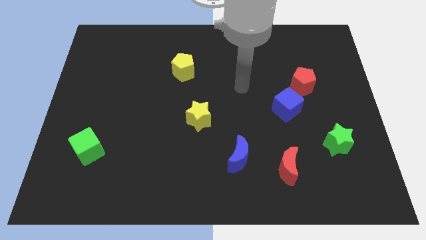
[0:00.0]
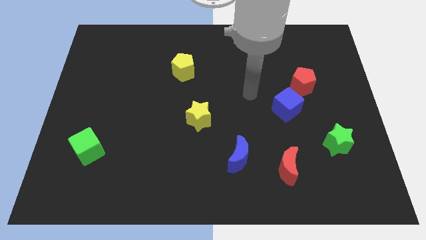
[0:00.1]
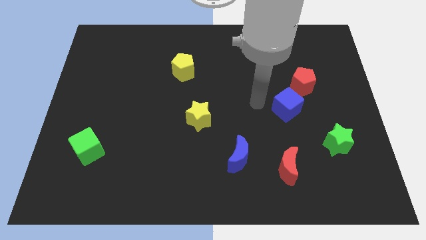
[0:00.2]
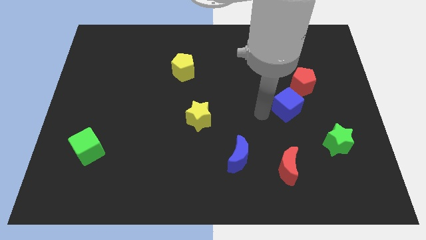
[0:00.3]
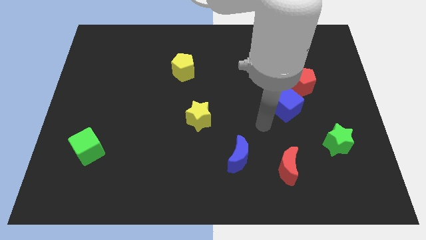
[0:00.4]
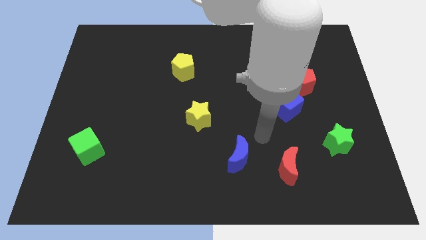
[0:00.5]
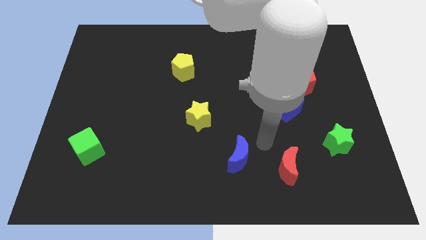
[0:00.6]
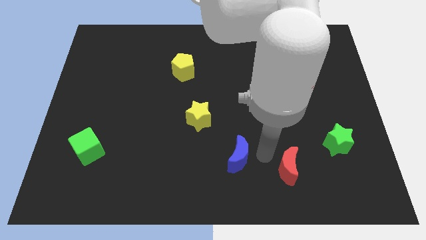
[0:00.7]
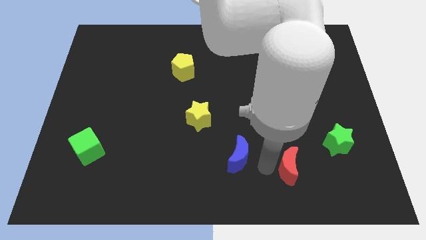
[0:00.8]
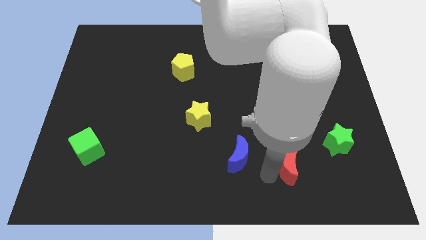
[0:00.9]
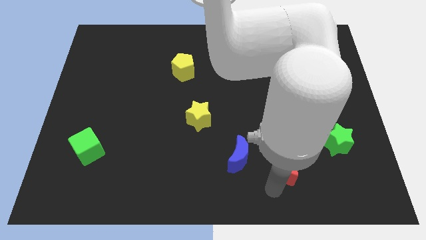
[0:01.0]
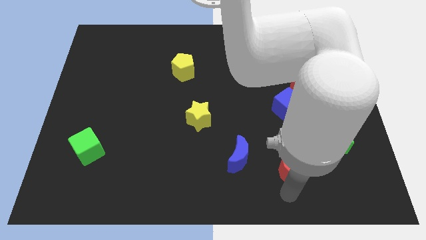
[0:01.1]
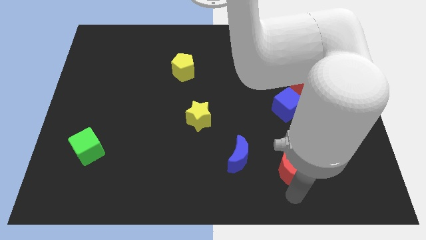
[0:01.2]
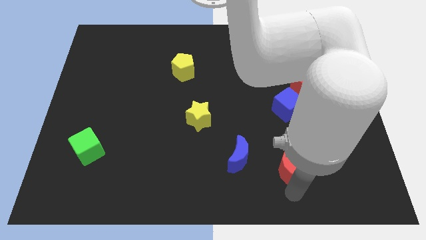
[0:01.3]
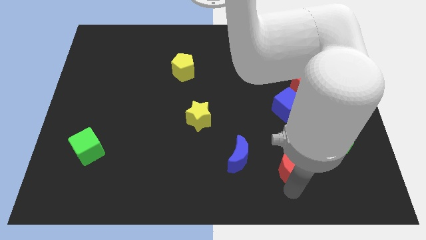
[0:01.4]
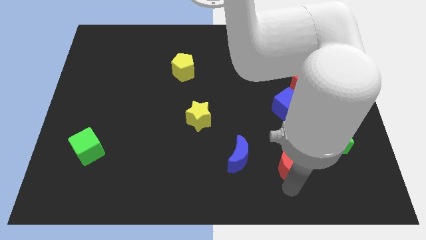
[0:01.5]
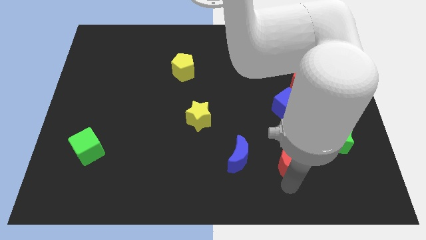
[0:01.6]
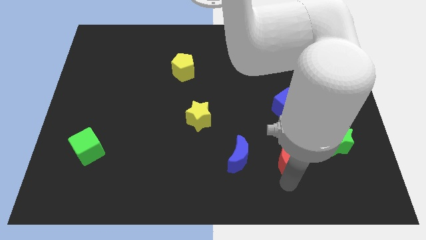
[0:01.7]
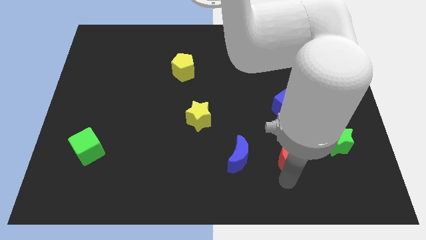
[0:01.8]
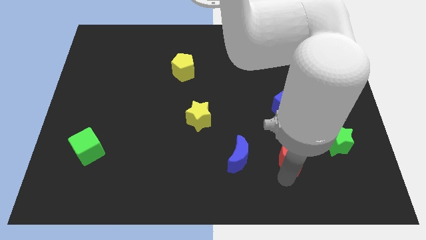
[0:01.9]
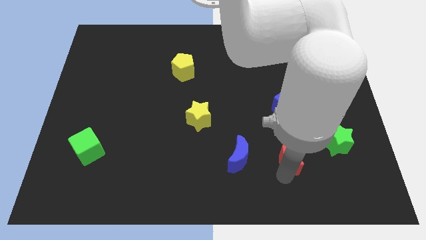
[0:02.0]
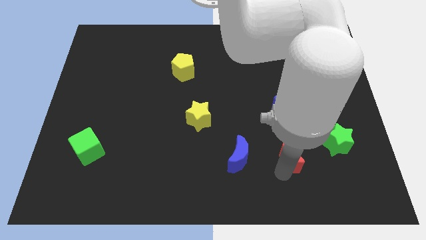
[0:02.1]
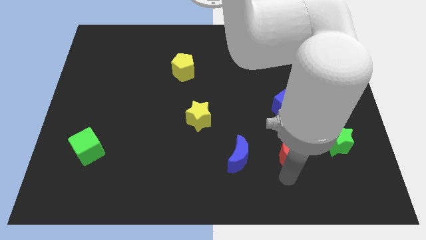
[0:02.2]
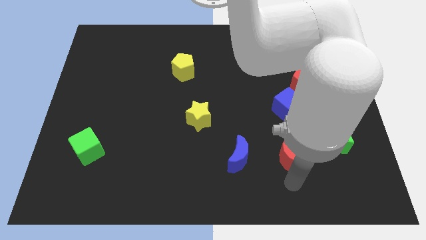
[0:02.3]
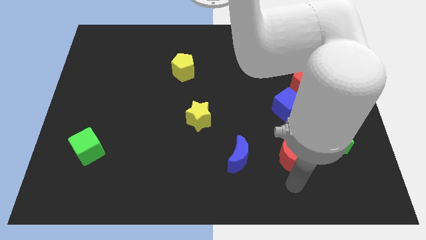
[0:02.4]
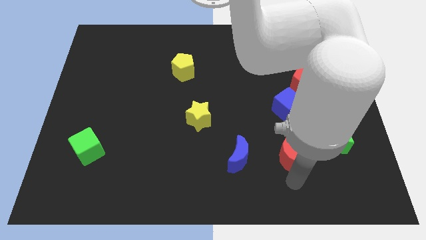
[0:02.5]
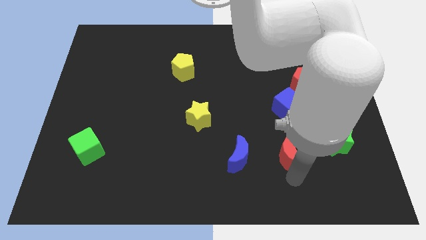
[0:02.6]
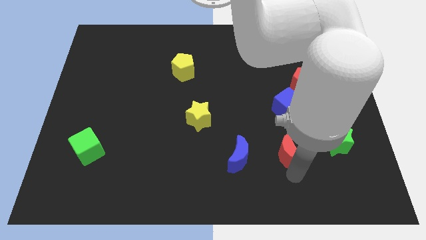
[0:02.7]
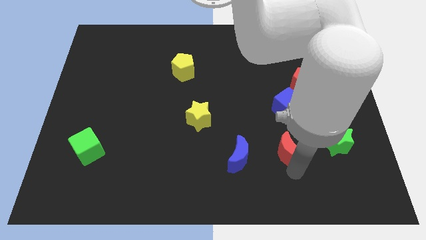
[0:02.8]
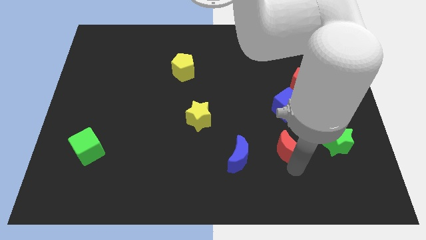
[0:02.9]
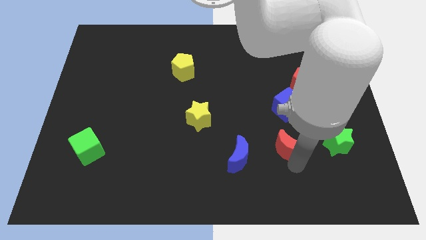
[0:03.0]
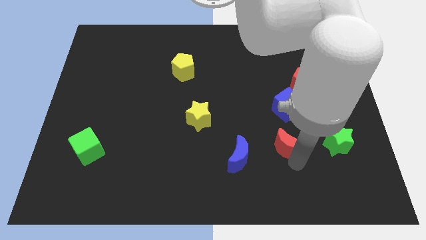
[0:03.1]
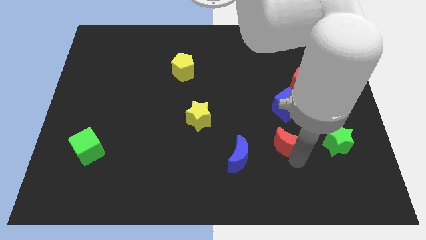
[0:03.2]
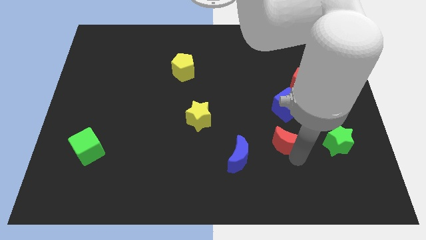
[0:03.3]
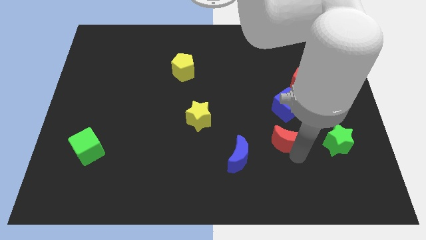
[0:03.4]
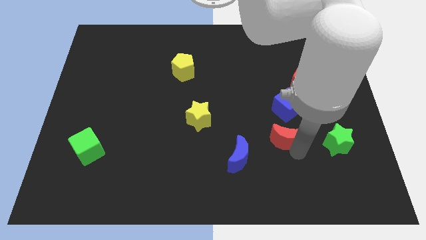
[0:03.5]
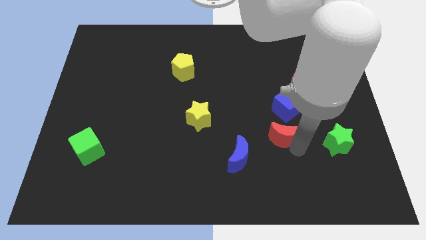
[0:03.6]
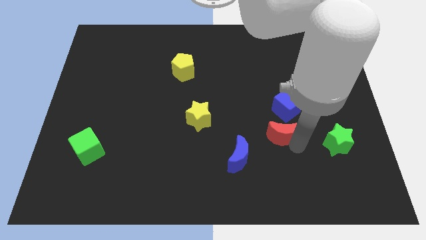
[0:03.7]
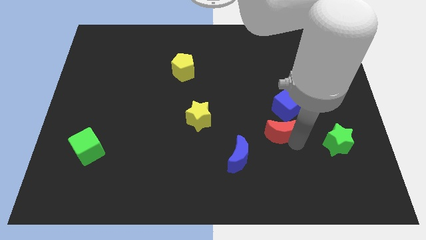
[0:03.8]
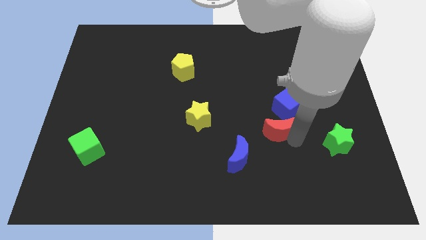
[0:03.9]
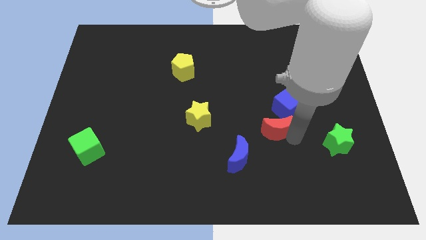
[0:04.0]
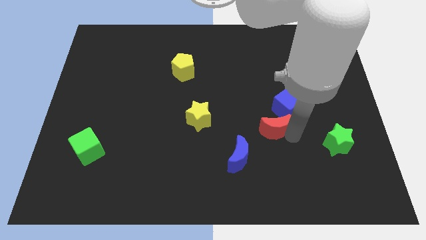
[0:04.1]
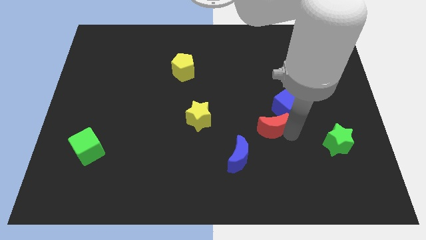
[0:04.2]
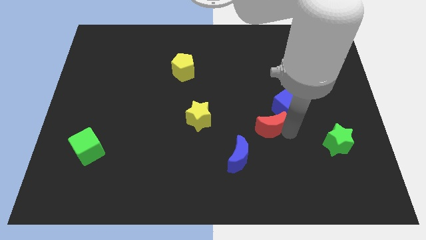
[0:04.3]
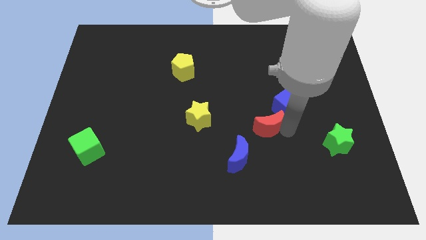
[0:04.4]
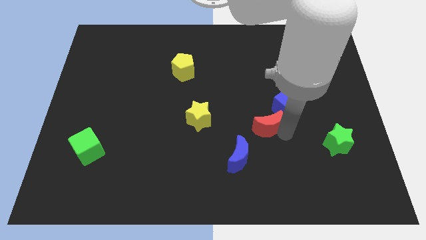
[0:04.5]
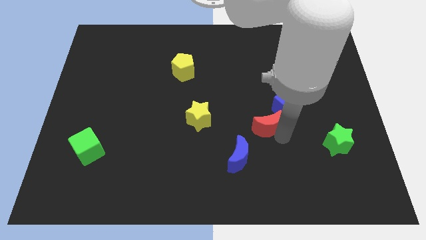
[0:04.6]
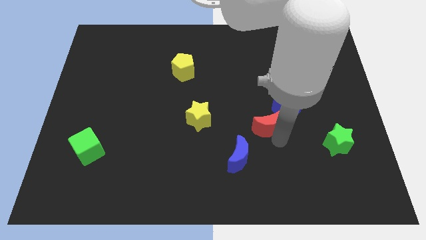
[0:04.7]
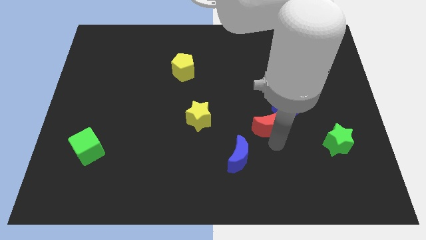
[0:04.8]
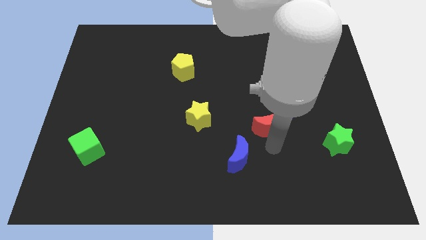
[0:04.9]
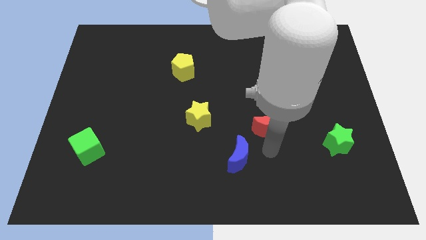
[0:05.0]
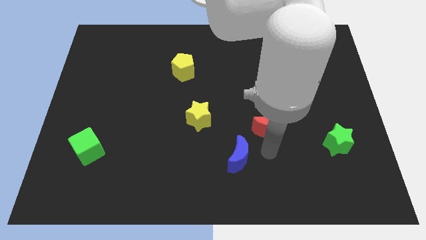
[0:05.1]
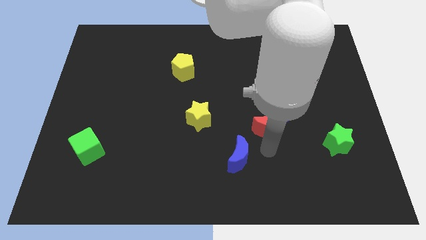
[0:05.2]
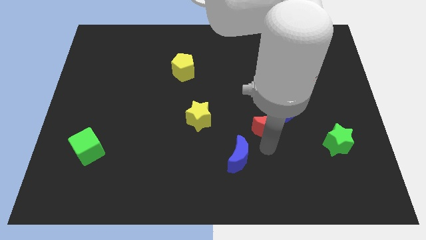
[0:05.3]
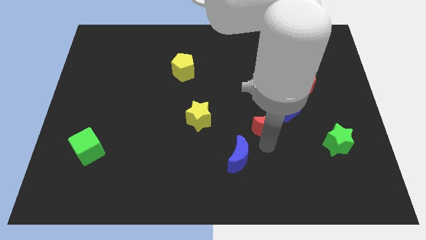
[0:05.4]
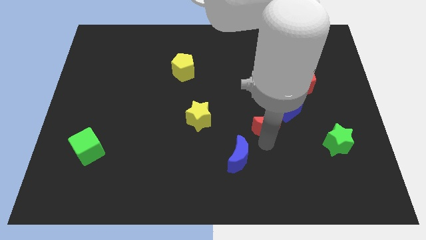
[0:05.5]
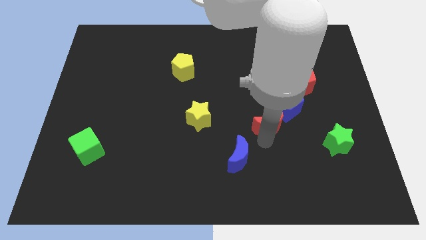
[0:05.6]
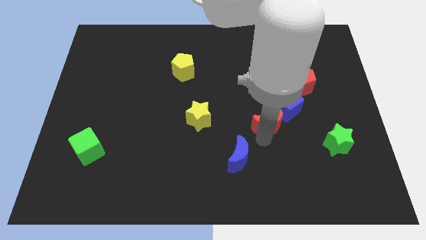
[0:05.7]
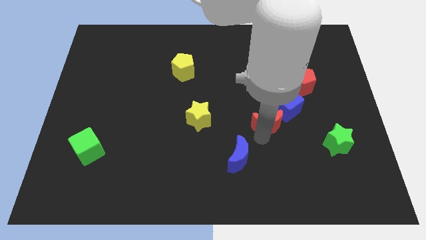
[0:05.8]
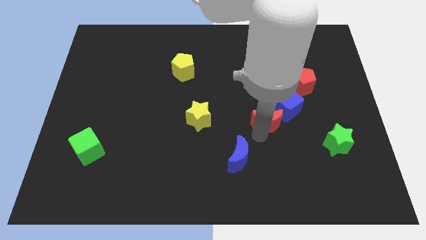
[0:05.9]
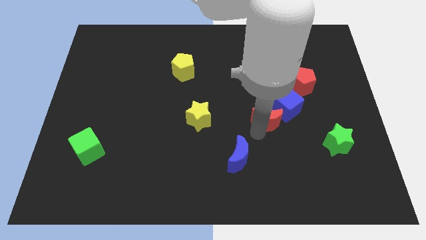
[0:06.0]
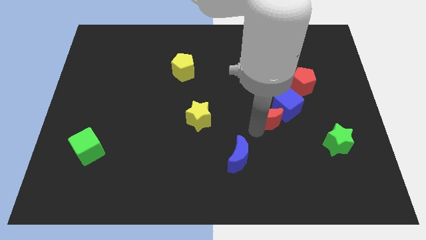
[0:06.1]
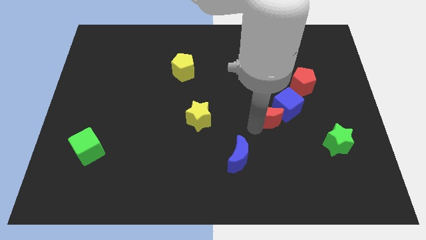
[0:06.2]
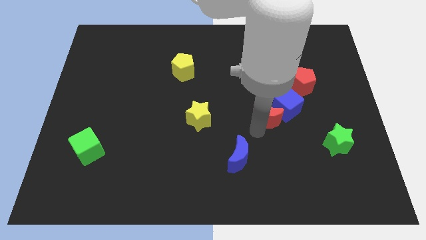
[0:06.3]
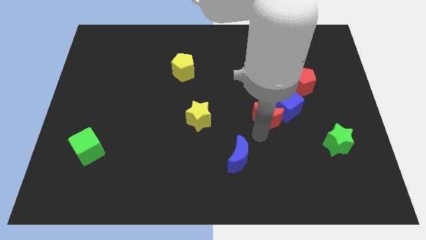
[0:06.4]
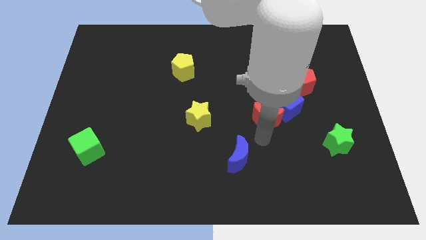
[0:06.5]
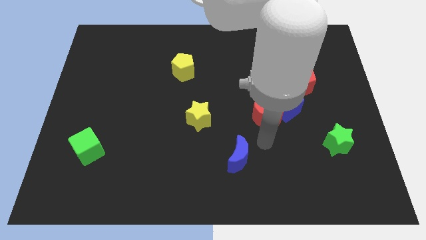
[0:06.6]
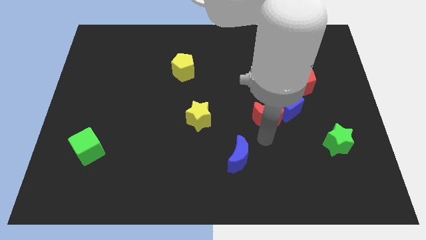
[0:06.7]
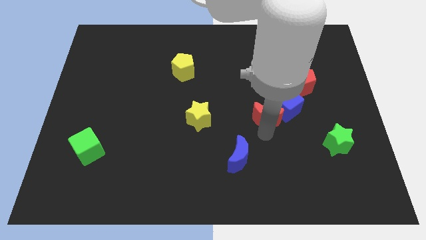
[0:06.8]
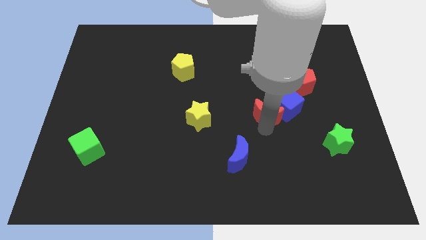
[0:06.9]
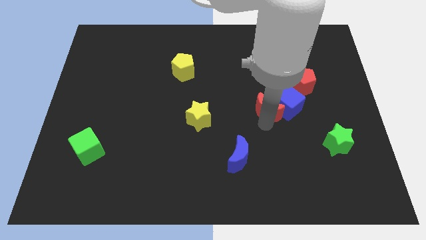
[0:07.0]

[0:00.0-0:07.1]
slide the red moon to the top left of the blue cube
